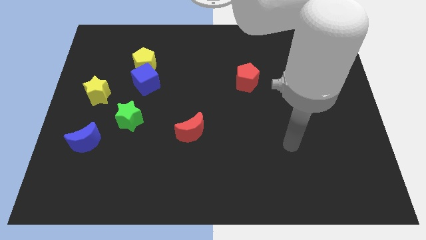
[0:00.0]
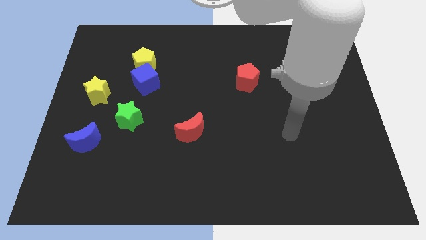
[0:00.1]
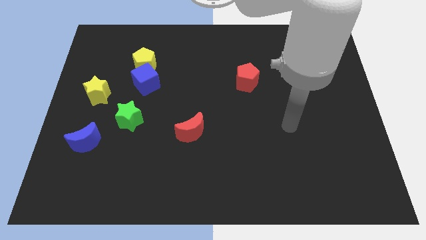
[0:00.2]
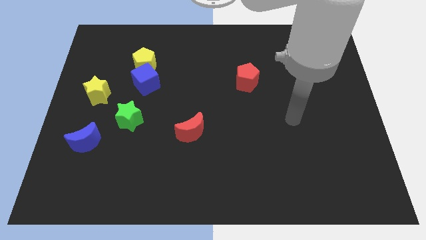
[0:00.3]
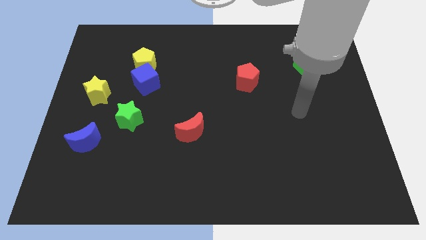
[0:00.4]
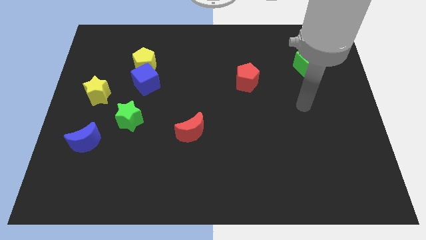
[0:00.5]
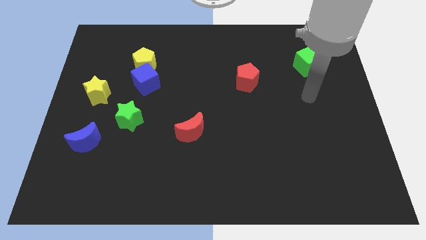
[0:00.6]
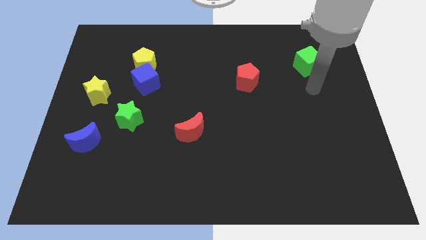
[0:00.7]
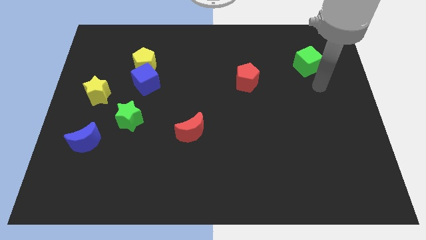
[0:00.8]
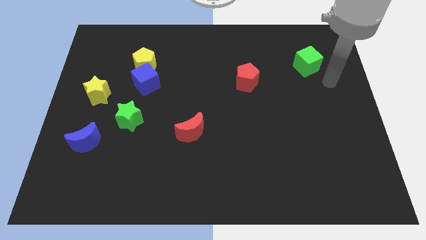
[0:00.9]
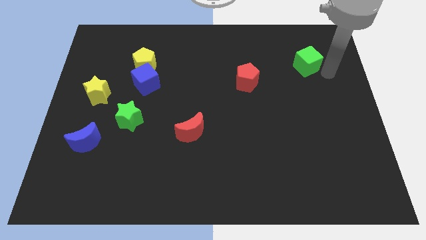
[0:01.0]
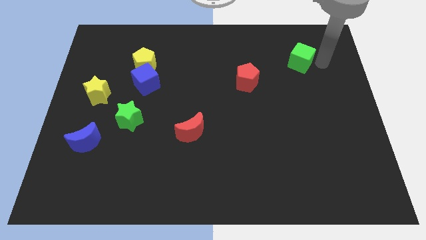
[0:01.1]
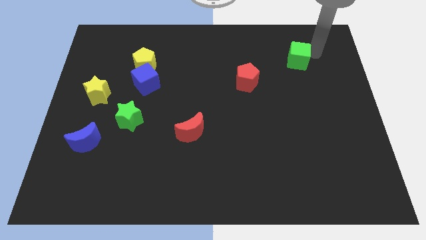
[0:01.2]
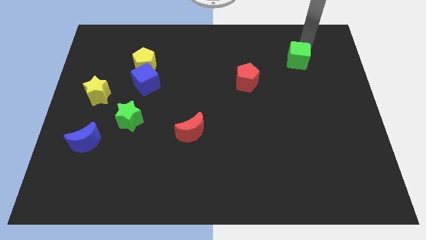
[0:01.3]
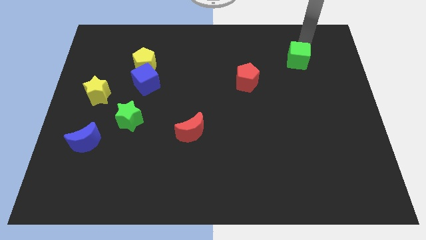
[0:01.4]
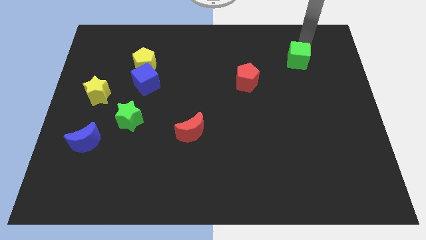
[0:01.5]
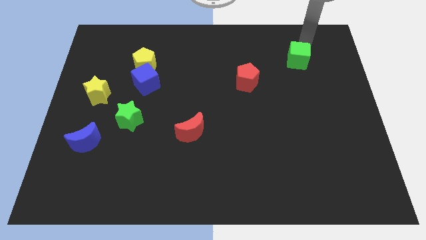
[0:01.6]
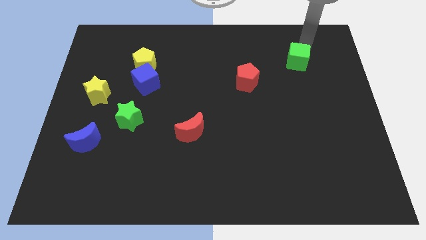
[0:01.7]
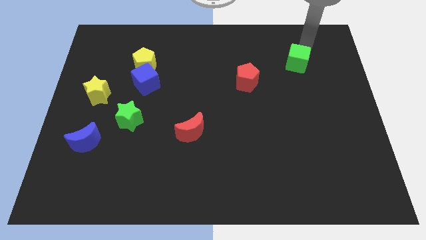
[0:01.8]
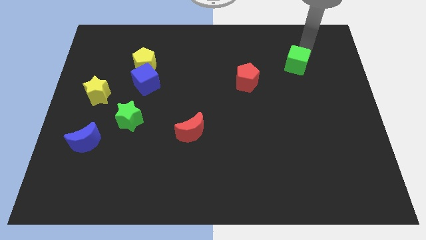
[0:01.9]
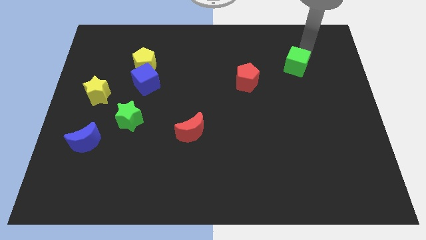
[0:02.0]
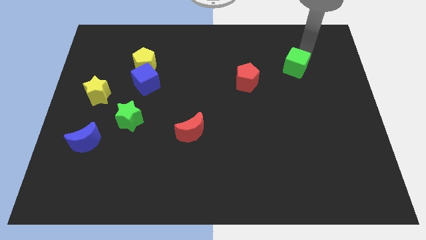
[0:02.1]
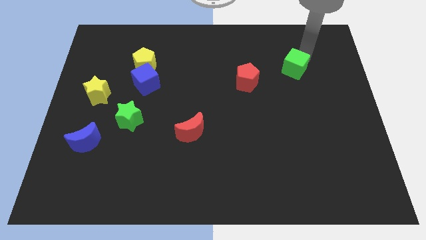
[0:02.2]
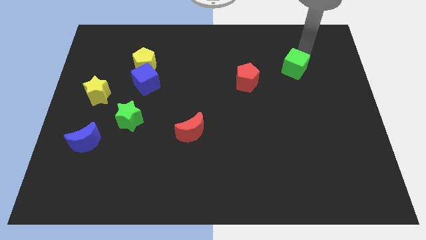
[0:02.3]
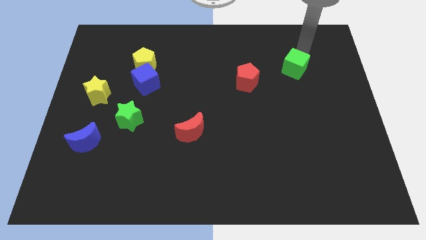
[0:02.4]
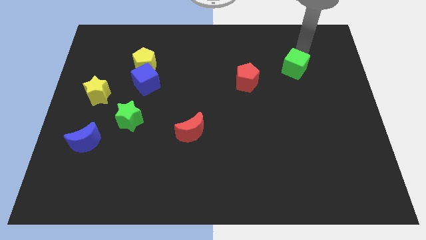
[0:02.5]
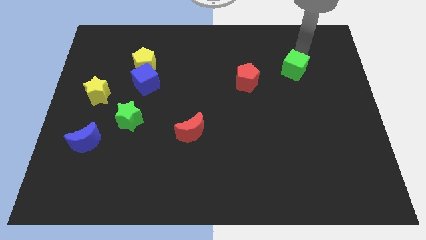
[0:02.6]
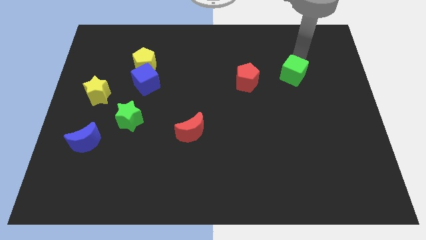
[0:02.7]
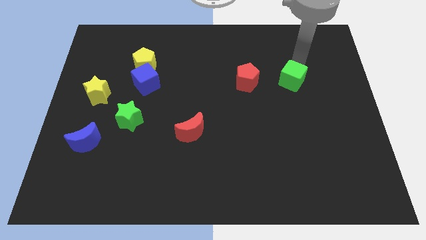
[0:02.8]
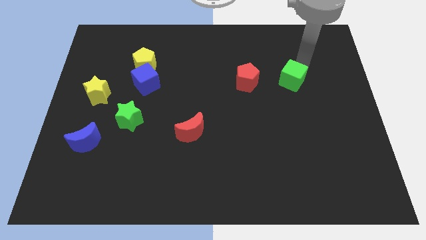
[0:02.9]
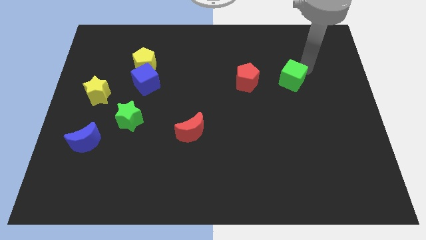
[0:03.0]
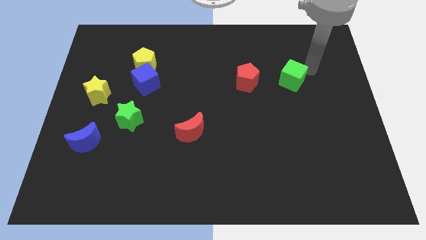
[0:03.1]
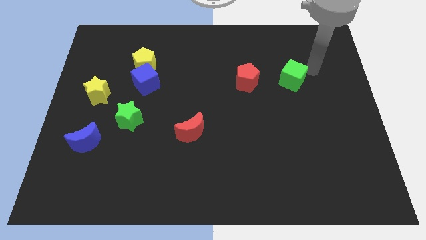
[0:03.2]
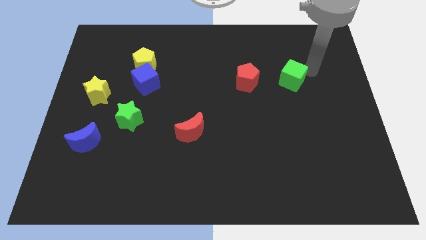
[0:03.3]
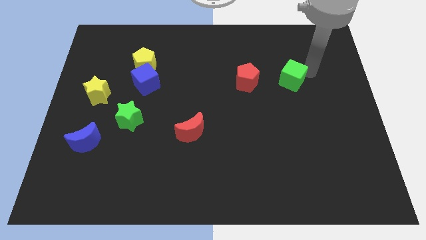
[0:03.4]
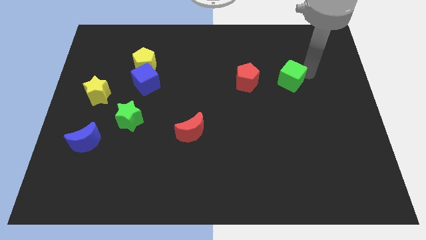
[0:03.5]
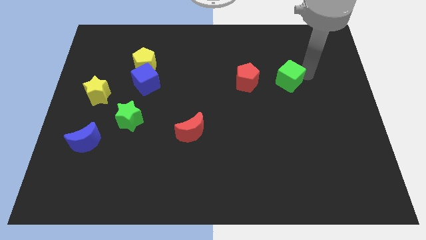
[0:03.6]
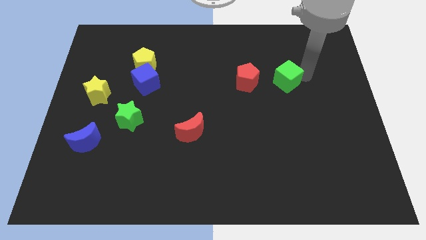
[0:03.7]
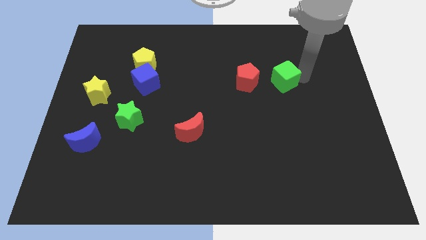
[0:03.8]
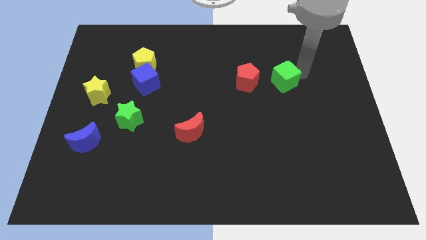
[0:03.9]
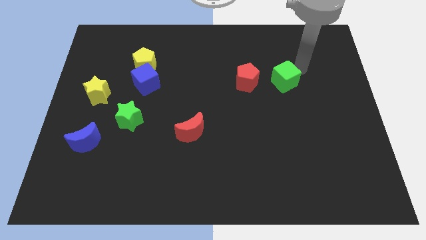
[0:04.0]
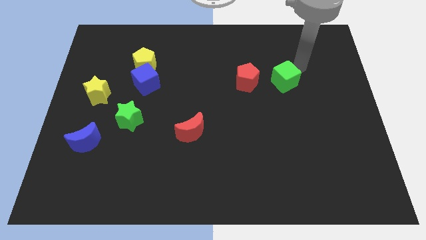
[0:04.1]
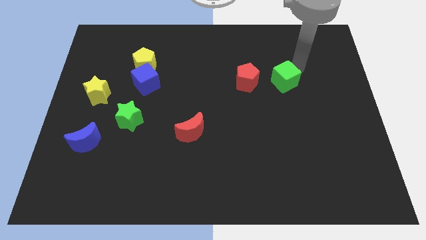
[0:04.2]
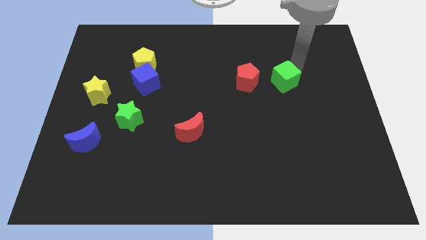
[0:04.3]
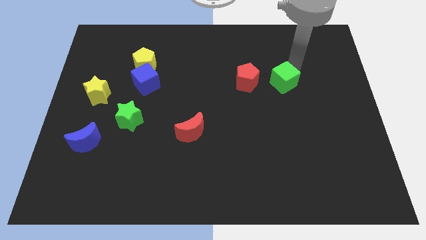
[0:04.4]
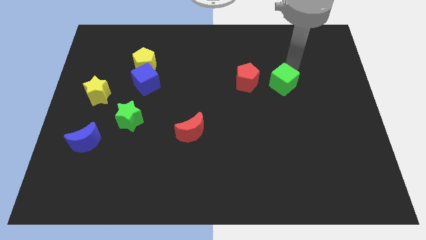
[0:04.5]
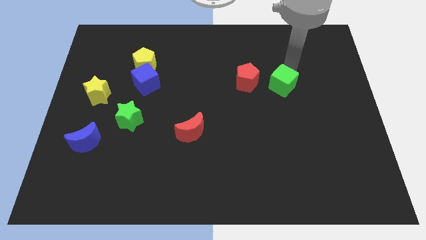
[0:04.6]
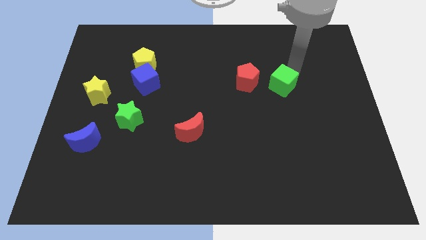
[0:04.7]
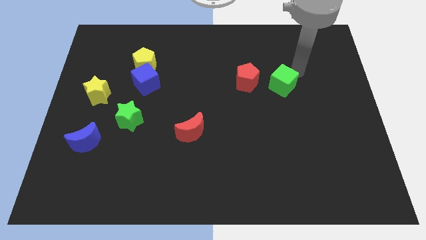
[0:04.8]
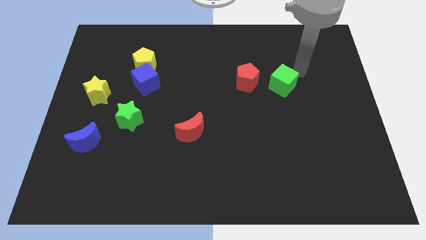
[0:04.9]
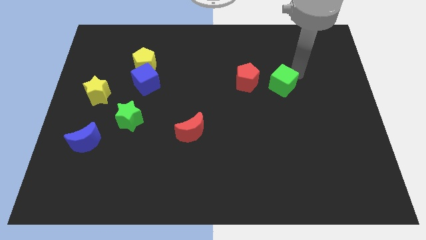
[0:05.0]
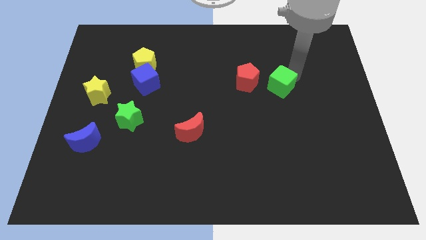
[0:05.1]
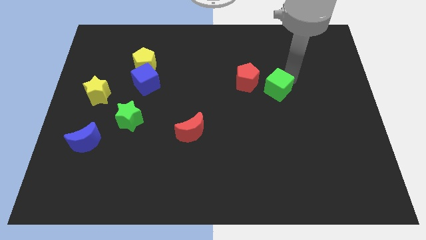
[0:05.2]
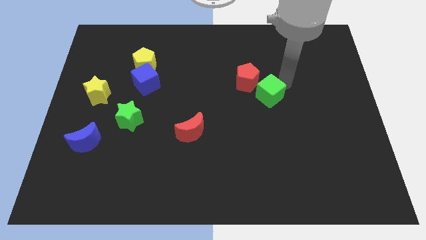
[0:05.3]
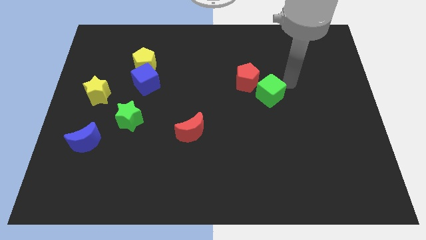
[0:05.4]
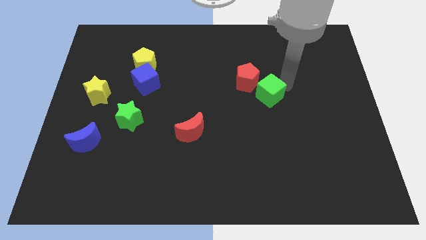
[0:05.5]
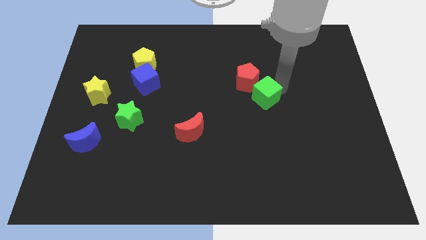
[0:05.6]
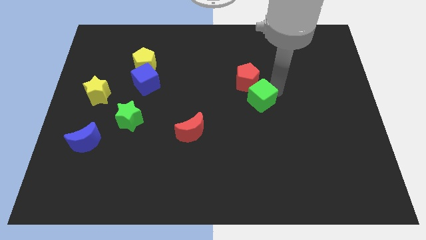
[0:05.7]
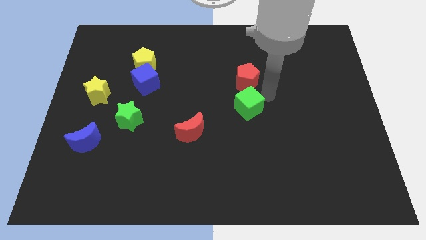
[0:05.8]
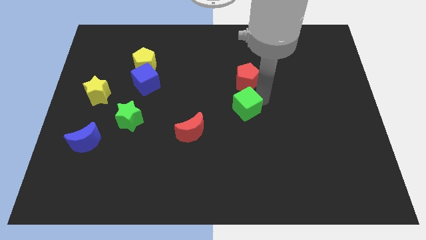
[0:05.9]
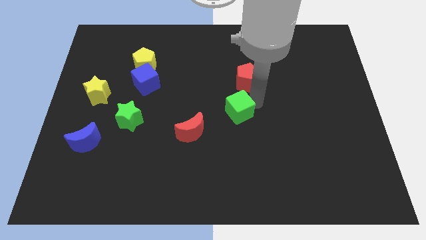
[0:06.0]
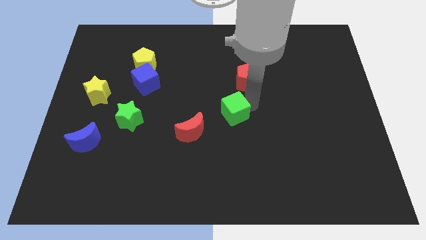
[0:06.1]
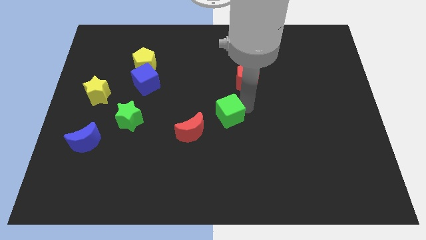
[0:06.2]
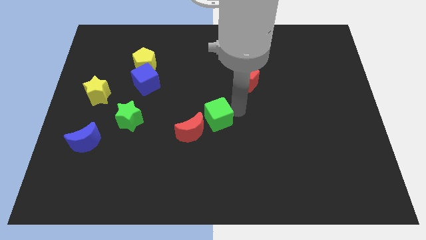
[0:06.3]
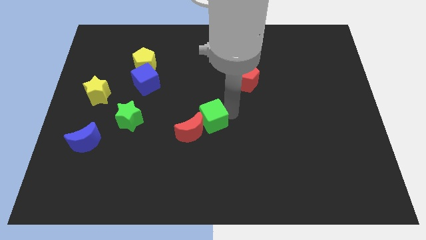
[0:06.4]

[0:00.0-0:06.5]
slide the green cube next to the red moon
